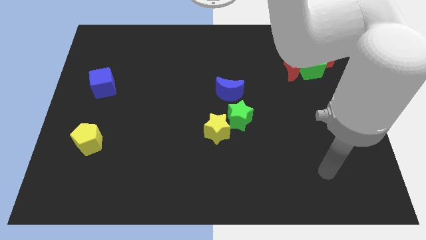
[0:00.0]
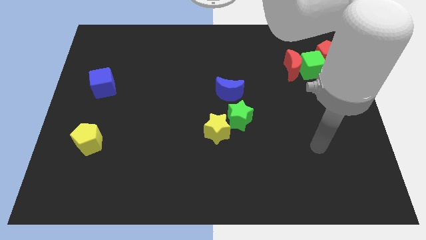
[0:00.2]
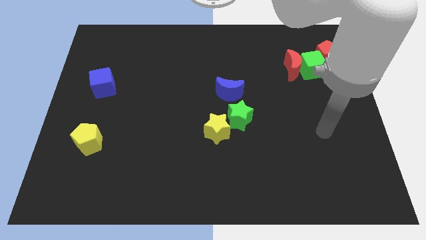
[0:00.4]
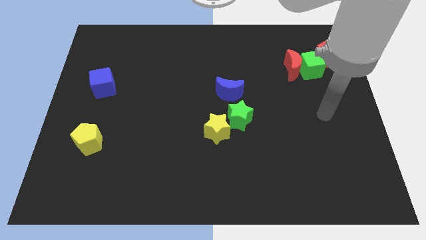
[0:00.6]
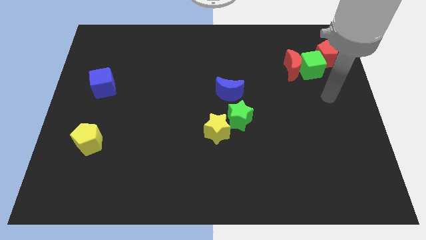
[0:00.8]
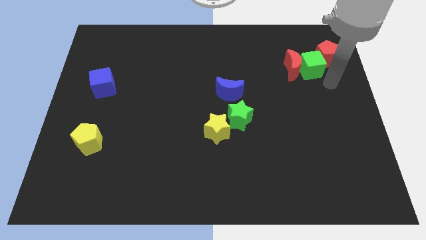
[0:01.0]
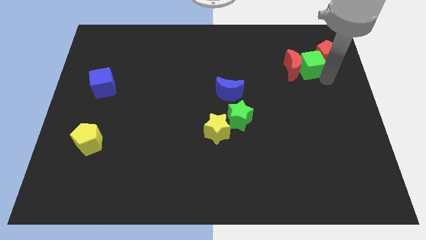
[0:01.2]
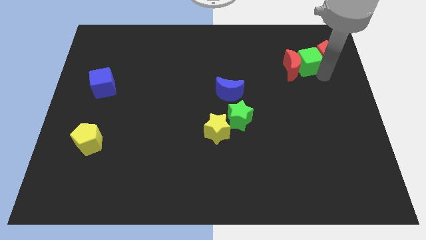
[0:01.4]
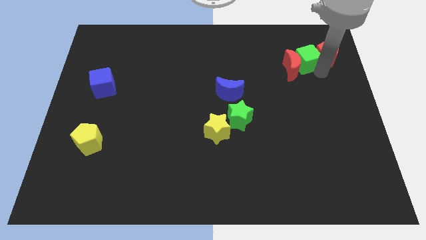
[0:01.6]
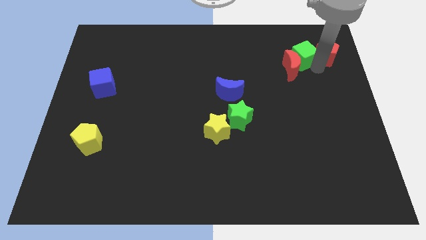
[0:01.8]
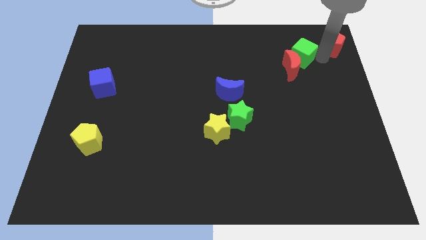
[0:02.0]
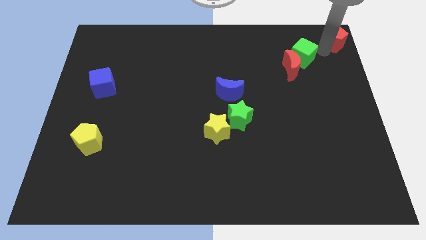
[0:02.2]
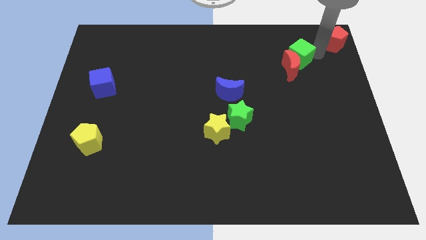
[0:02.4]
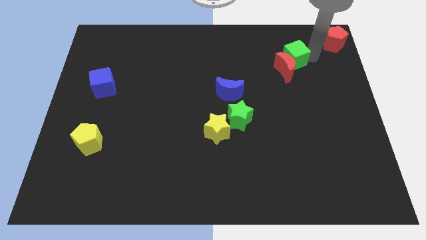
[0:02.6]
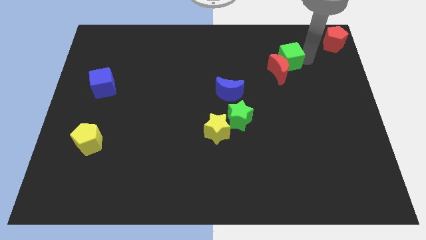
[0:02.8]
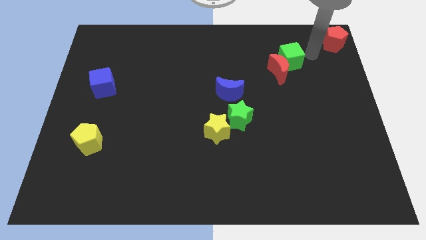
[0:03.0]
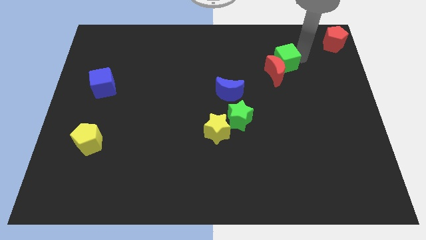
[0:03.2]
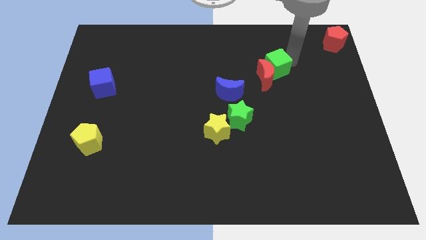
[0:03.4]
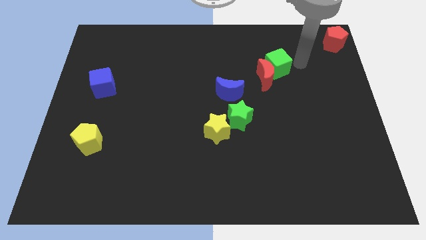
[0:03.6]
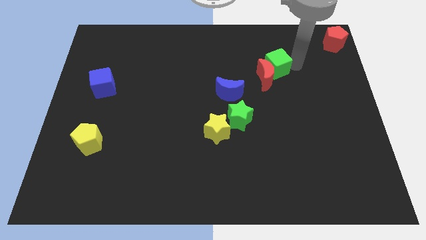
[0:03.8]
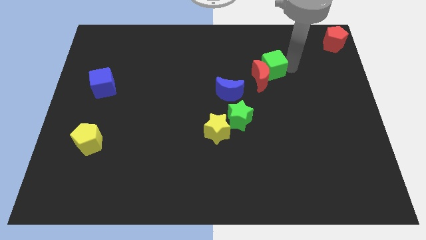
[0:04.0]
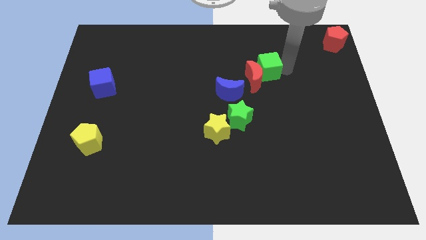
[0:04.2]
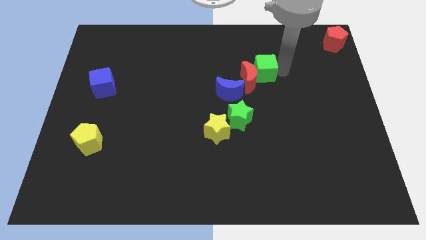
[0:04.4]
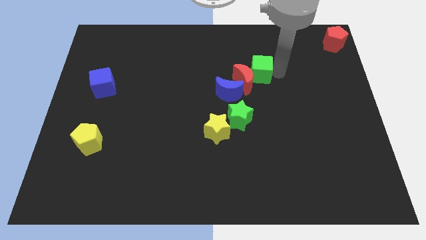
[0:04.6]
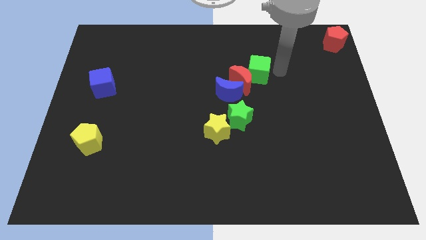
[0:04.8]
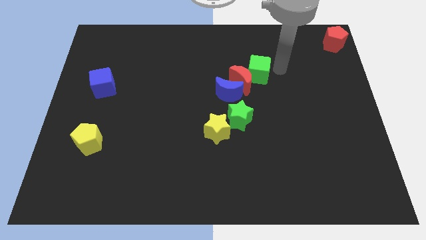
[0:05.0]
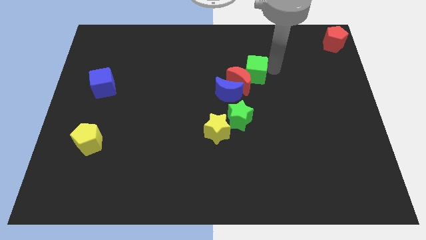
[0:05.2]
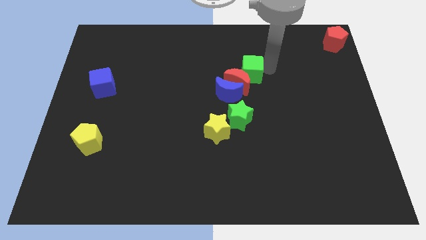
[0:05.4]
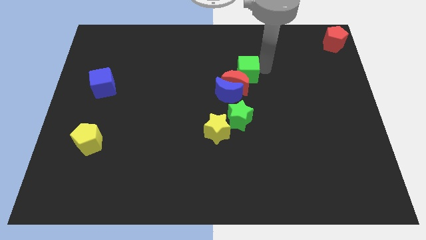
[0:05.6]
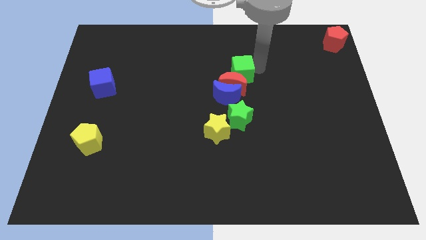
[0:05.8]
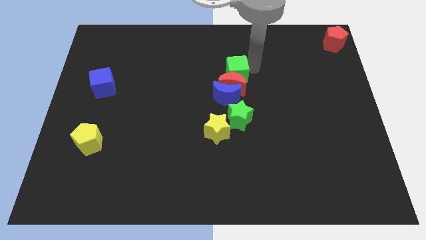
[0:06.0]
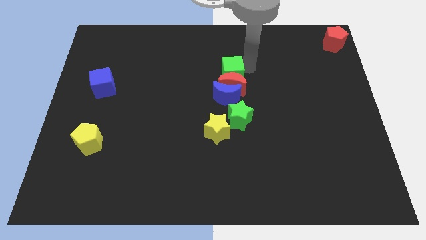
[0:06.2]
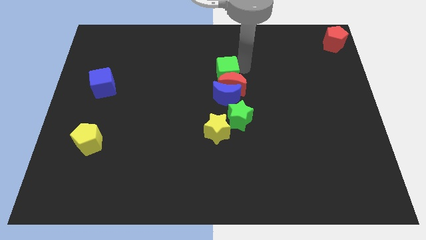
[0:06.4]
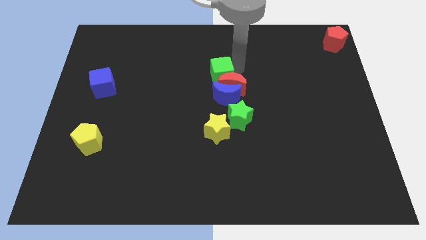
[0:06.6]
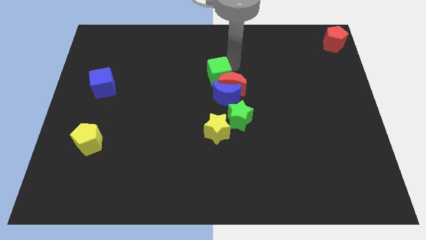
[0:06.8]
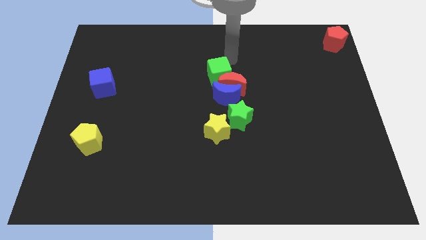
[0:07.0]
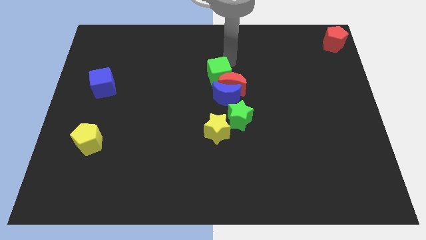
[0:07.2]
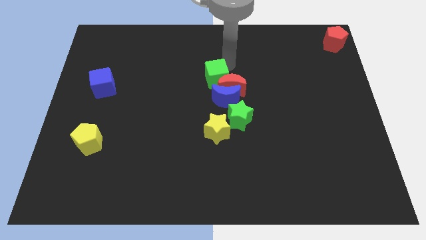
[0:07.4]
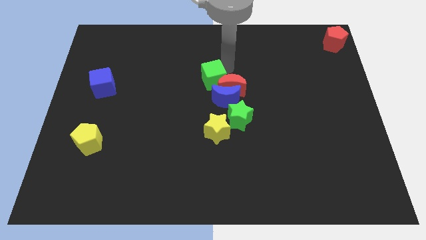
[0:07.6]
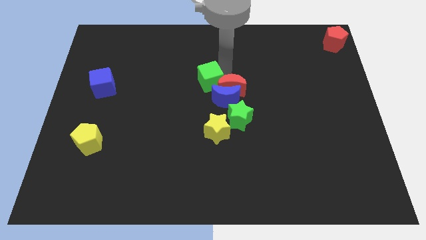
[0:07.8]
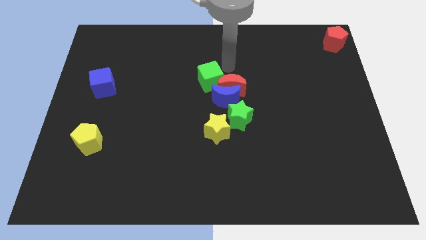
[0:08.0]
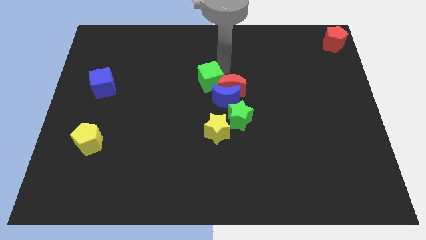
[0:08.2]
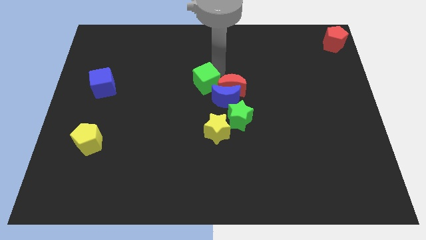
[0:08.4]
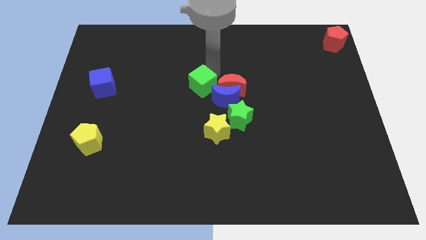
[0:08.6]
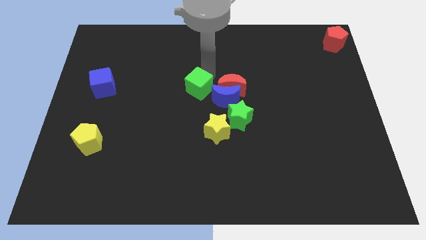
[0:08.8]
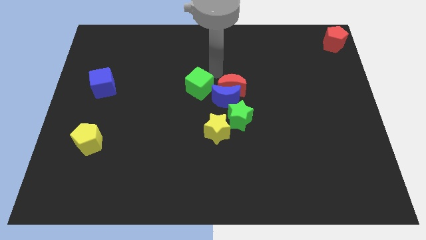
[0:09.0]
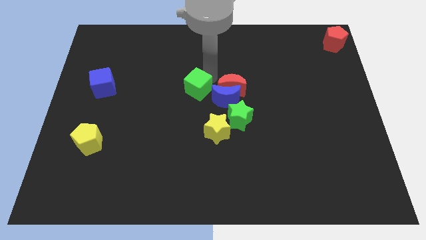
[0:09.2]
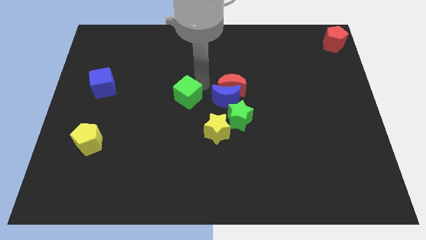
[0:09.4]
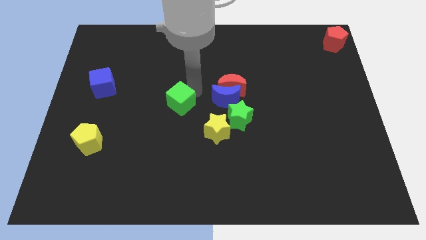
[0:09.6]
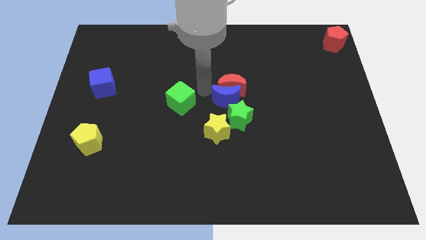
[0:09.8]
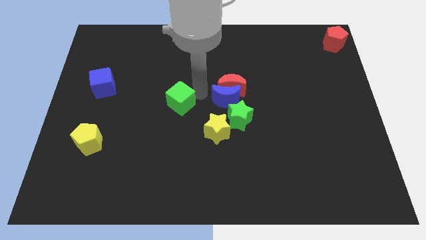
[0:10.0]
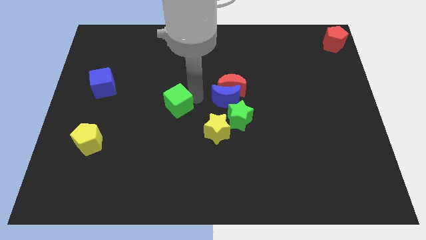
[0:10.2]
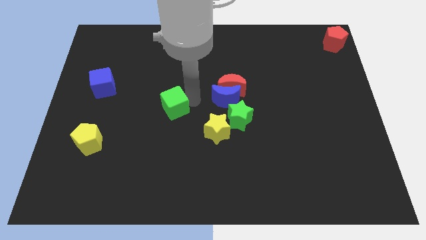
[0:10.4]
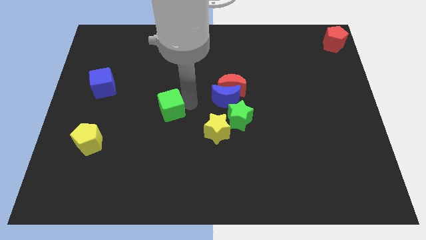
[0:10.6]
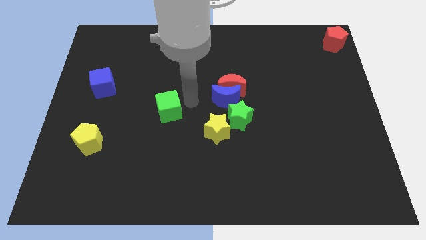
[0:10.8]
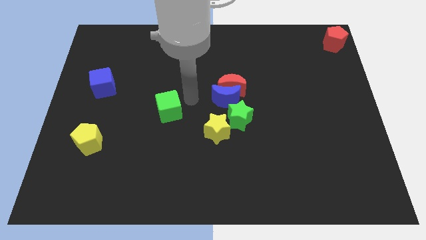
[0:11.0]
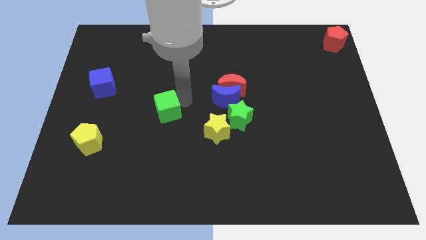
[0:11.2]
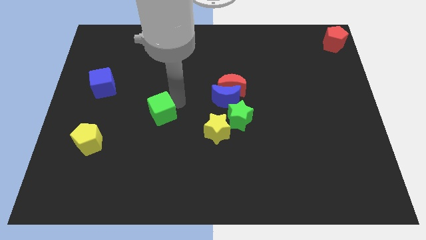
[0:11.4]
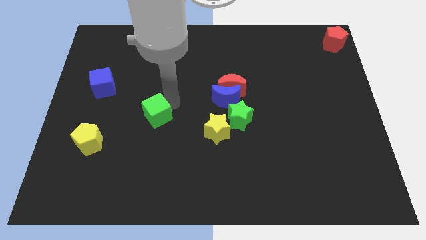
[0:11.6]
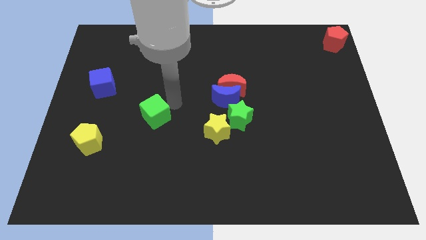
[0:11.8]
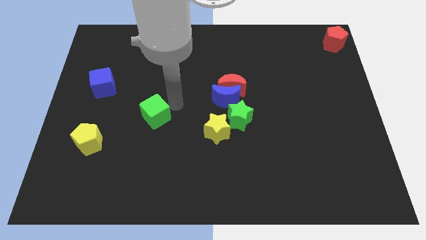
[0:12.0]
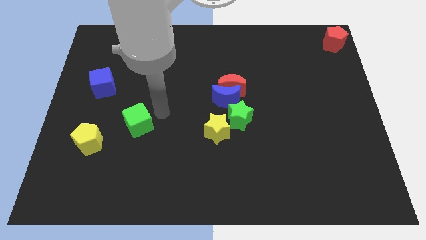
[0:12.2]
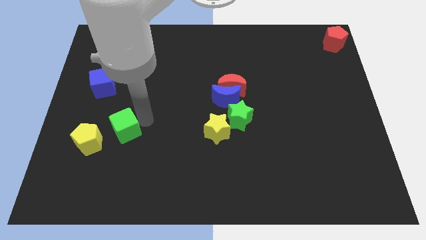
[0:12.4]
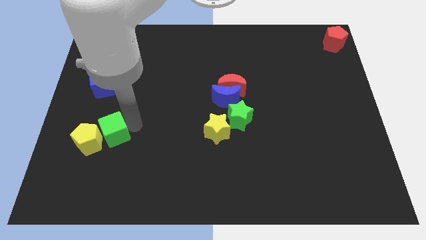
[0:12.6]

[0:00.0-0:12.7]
put the green cube next to the yellow pentagon
